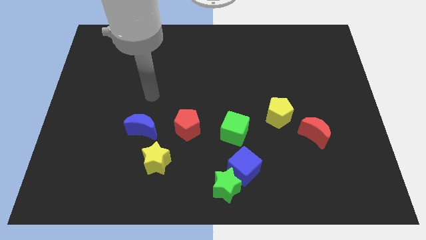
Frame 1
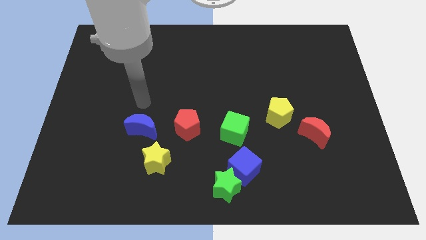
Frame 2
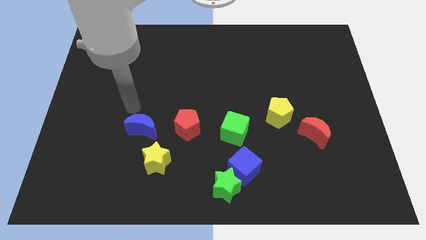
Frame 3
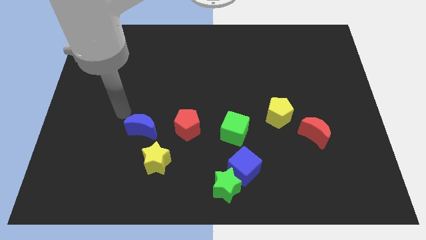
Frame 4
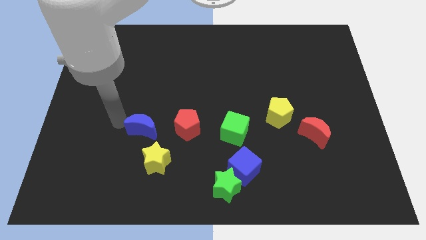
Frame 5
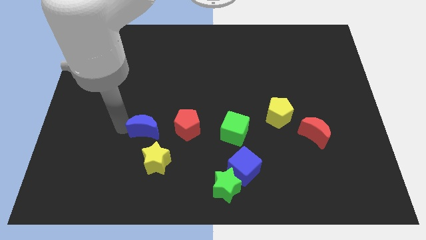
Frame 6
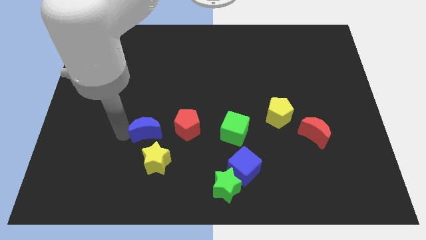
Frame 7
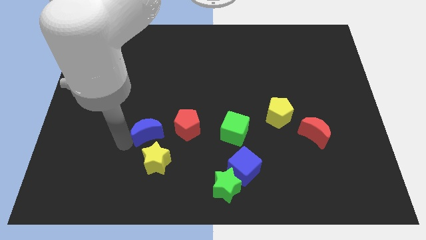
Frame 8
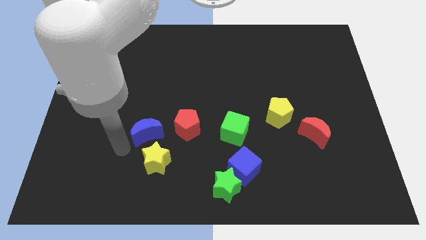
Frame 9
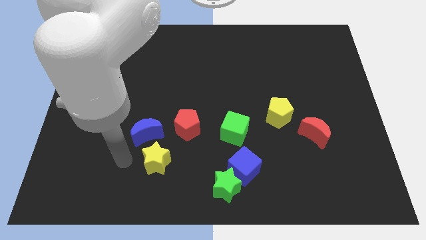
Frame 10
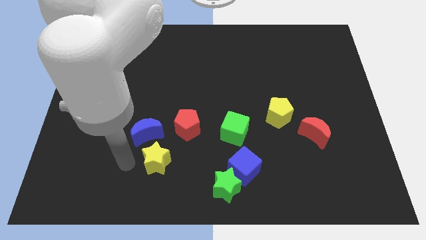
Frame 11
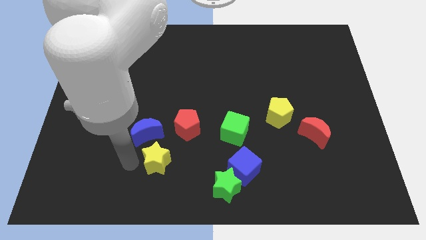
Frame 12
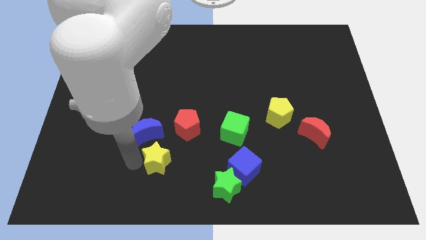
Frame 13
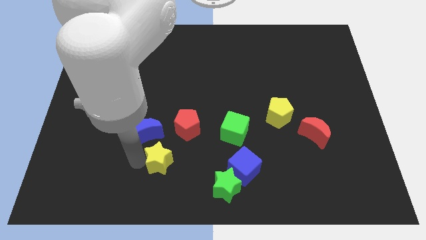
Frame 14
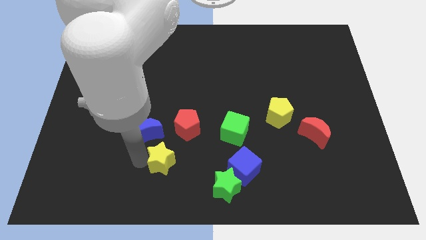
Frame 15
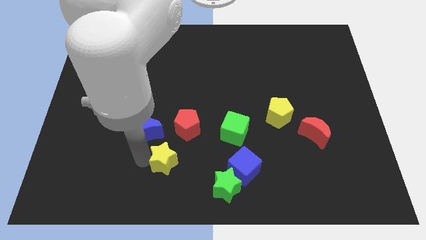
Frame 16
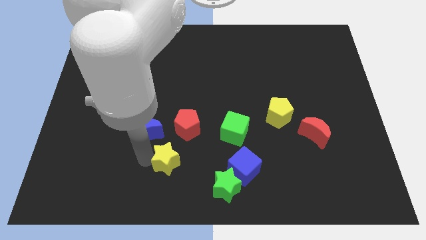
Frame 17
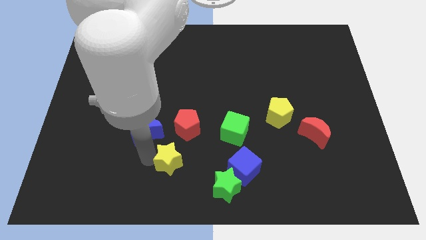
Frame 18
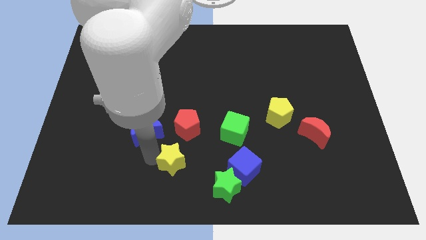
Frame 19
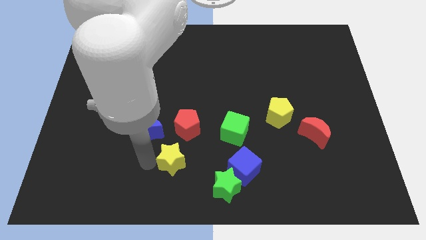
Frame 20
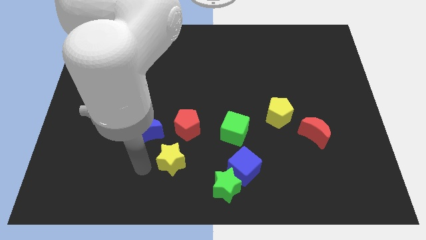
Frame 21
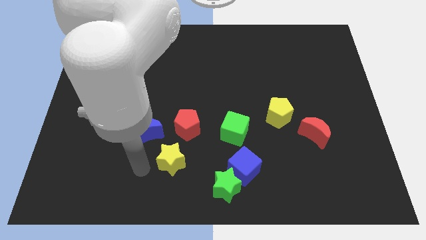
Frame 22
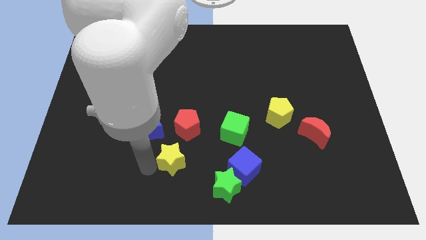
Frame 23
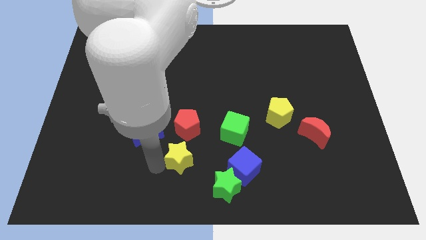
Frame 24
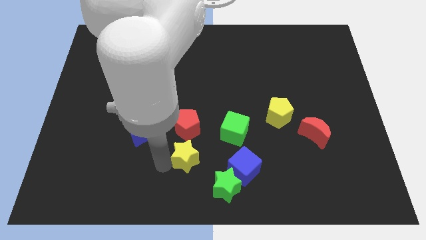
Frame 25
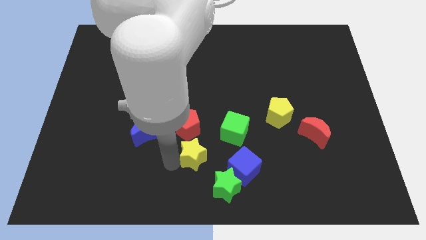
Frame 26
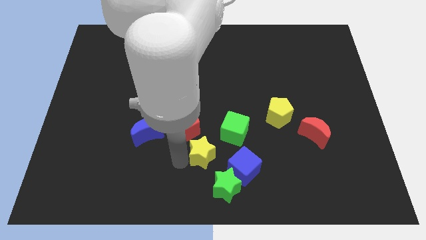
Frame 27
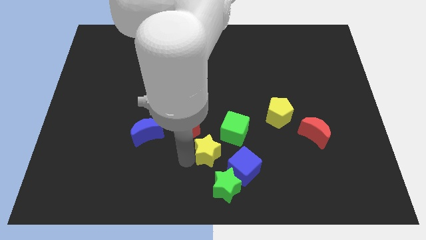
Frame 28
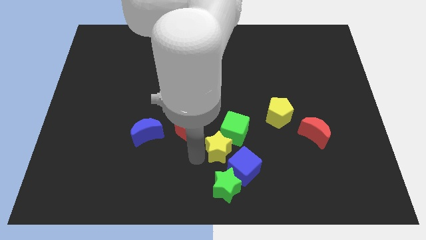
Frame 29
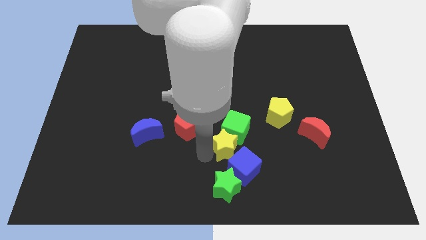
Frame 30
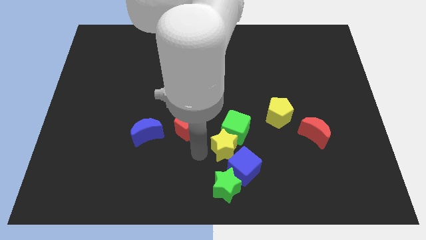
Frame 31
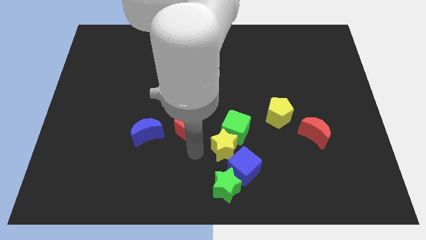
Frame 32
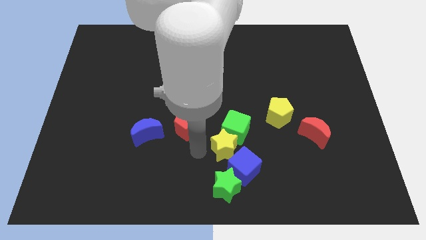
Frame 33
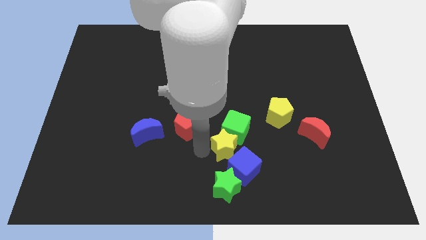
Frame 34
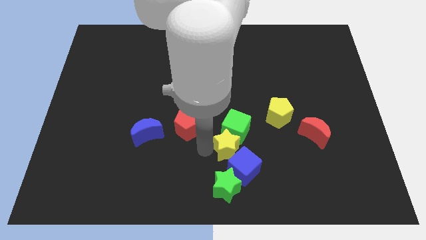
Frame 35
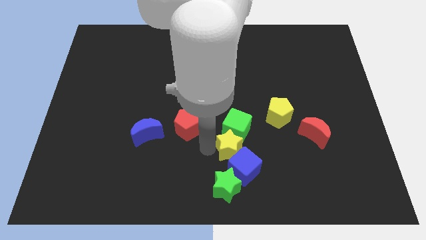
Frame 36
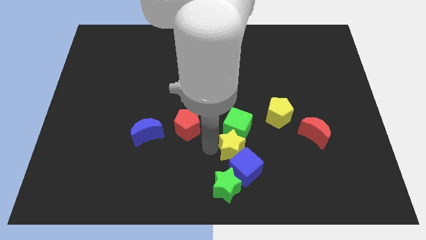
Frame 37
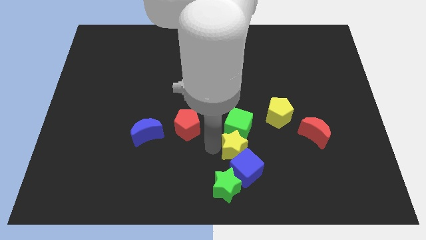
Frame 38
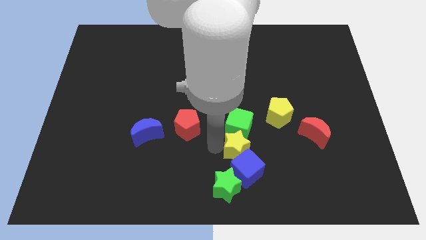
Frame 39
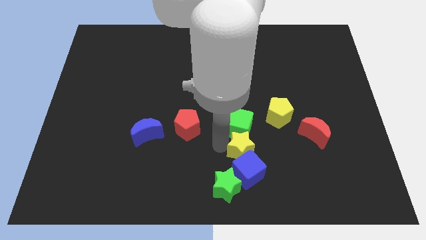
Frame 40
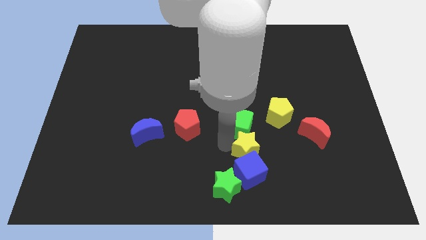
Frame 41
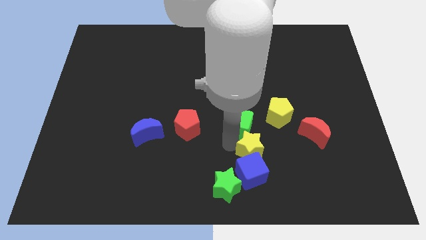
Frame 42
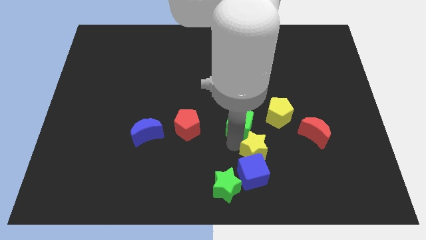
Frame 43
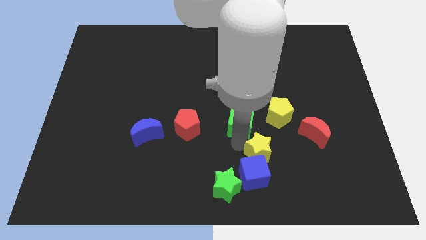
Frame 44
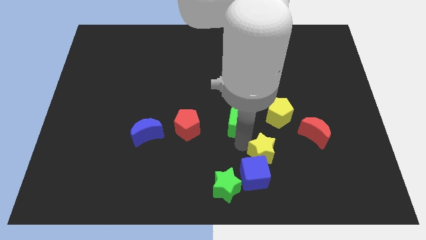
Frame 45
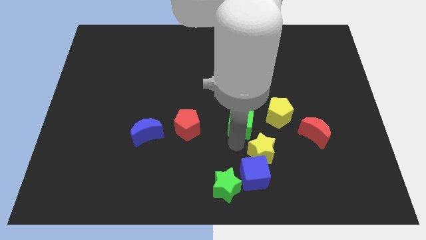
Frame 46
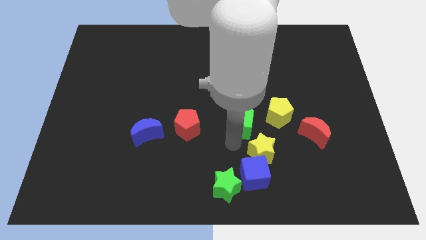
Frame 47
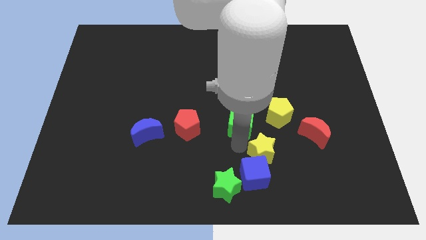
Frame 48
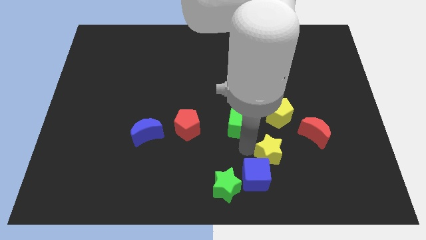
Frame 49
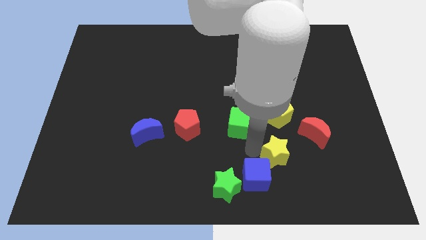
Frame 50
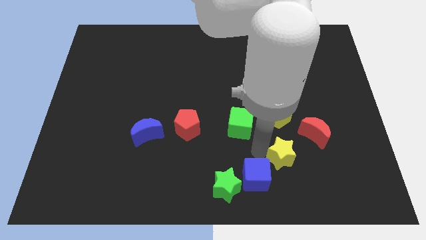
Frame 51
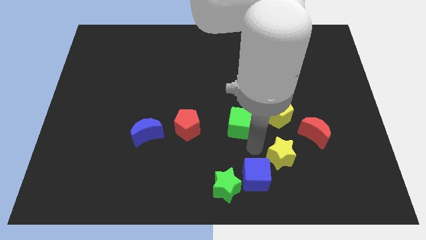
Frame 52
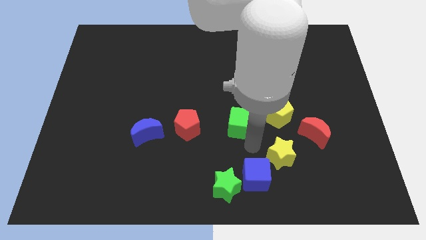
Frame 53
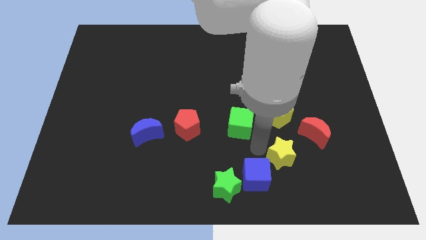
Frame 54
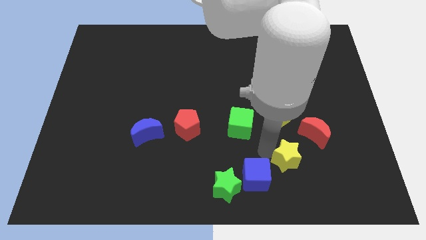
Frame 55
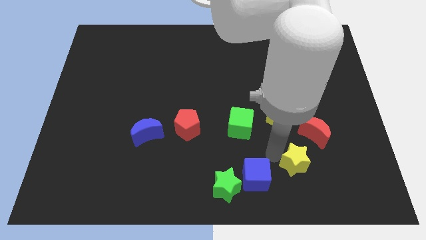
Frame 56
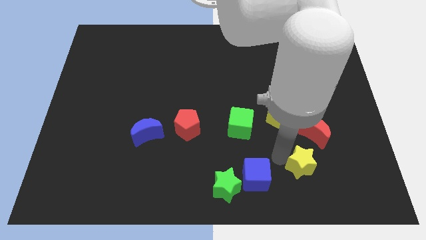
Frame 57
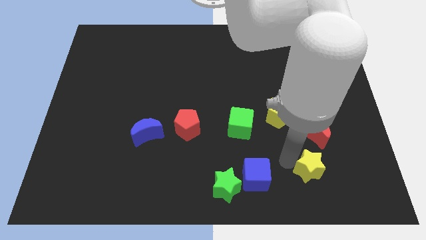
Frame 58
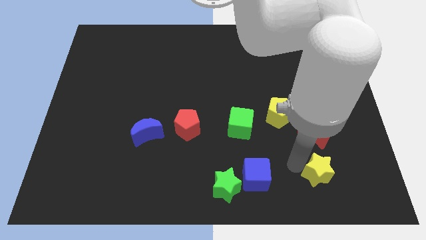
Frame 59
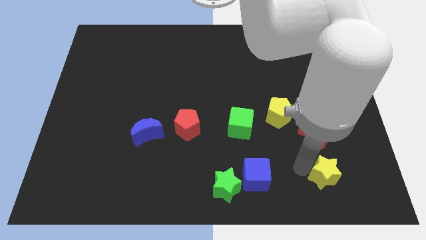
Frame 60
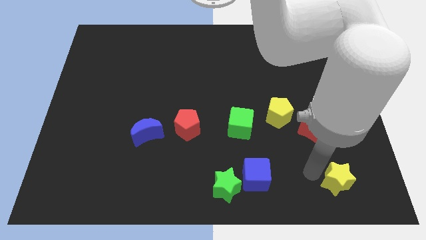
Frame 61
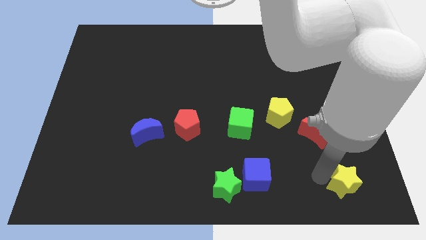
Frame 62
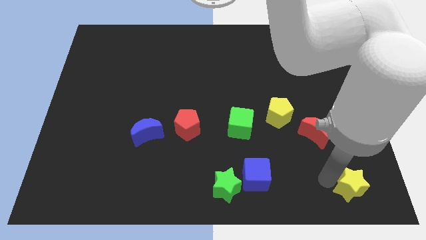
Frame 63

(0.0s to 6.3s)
put the yellow star to the bottom right corner
